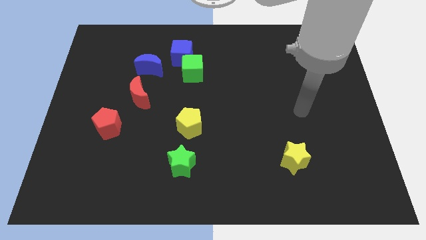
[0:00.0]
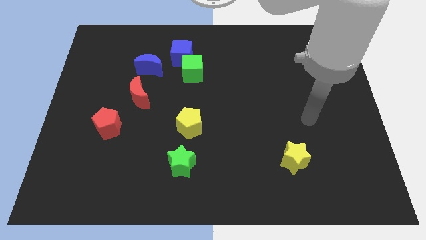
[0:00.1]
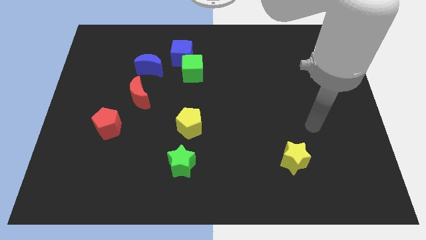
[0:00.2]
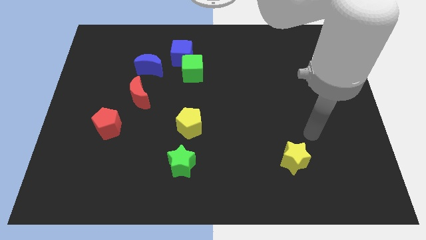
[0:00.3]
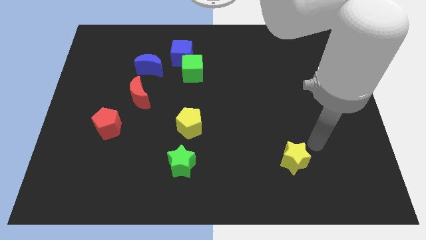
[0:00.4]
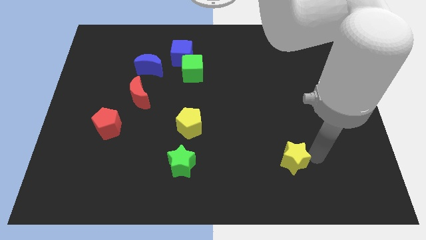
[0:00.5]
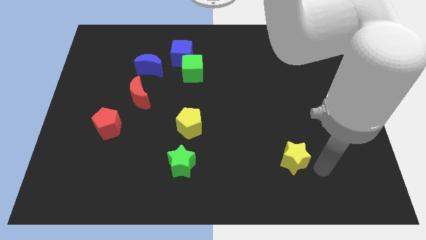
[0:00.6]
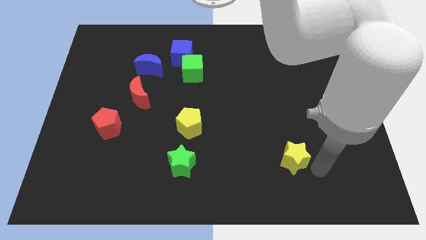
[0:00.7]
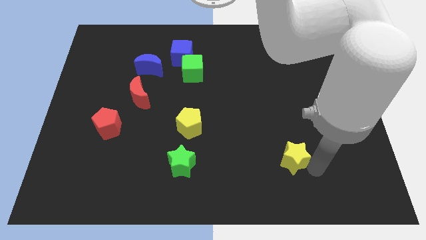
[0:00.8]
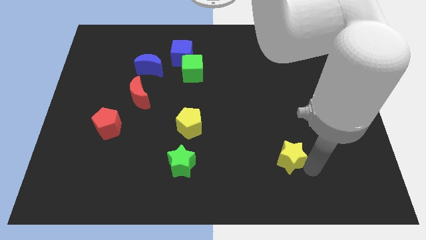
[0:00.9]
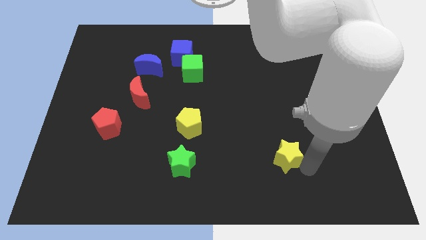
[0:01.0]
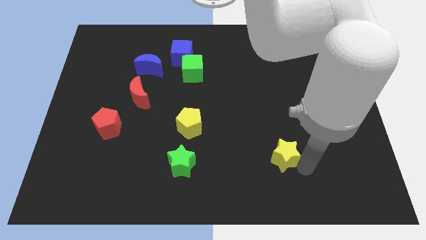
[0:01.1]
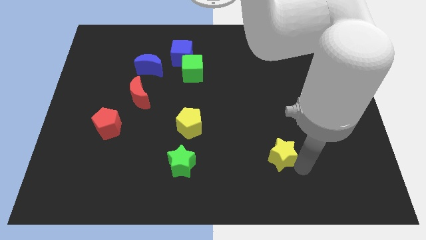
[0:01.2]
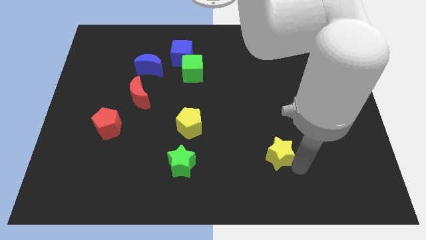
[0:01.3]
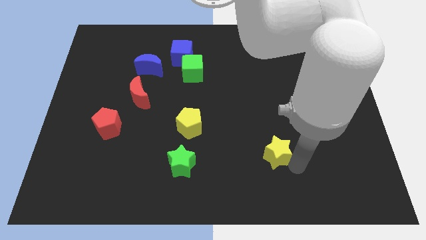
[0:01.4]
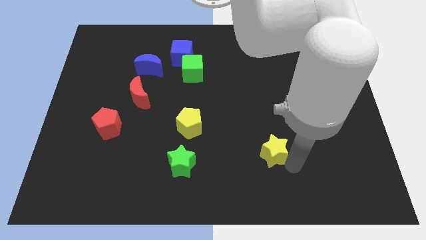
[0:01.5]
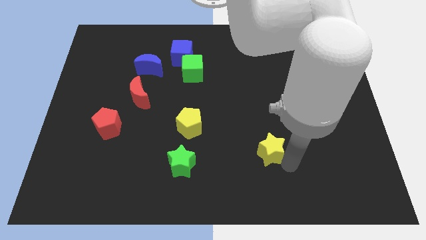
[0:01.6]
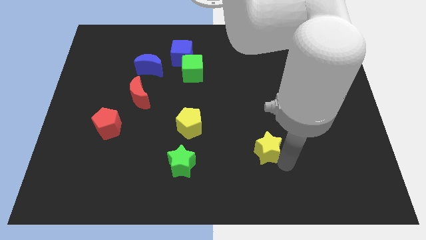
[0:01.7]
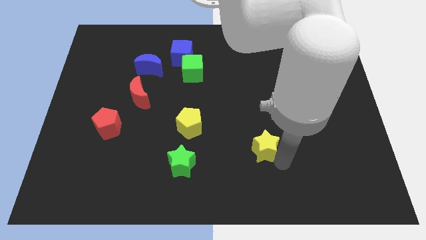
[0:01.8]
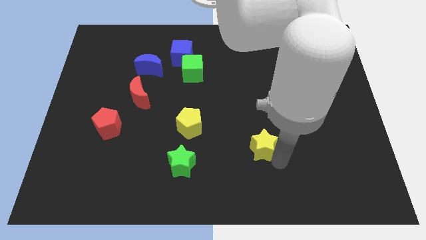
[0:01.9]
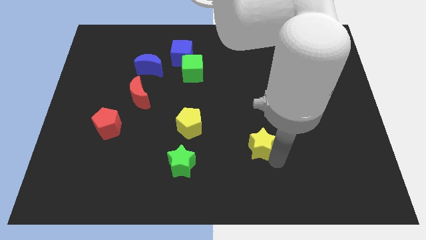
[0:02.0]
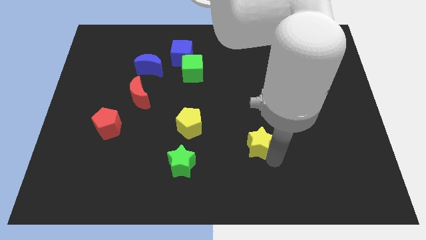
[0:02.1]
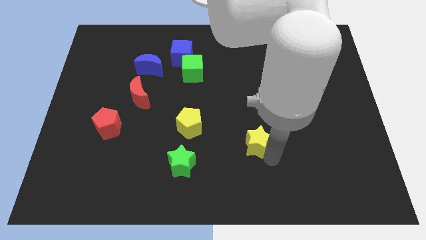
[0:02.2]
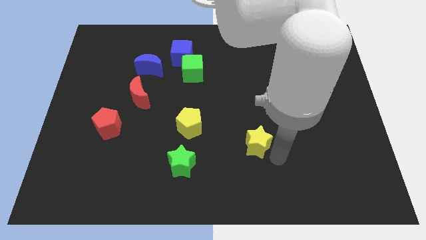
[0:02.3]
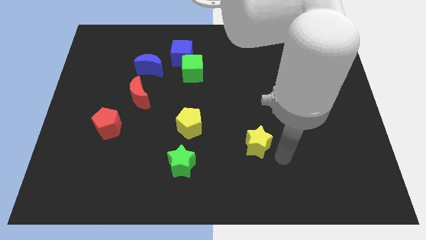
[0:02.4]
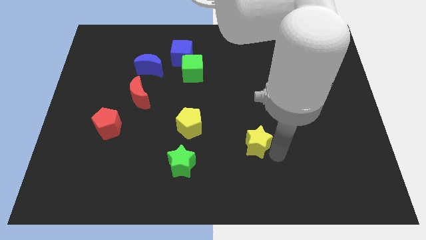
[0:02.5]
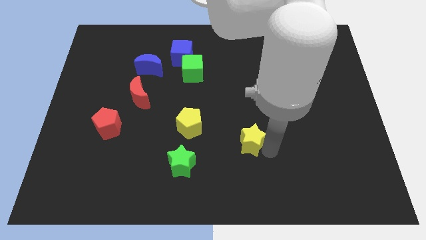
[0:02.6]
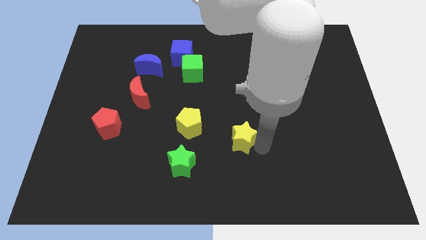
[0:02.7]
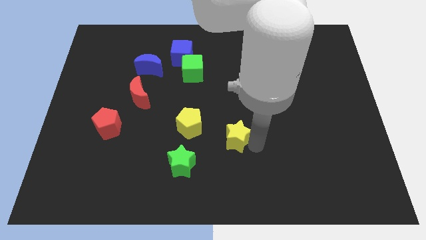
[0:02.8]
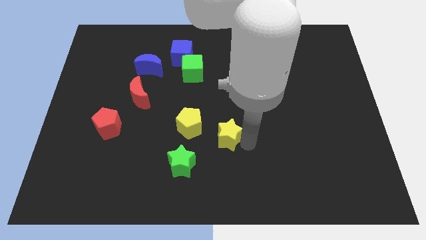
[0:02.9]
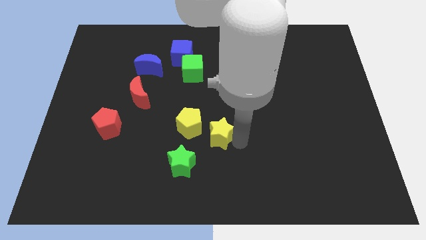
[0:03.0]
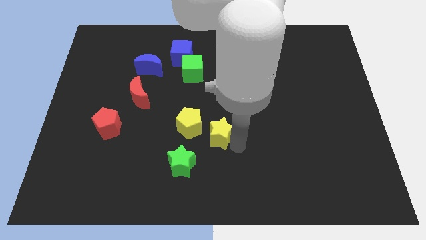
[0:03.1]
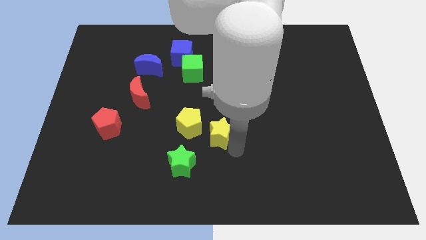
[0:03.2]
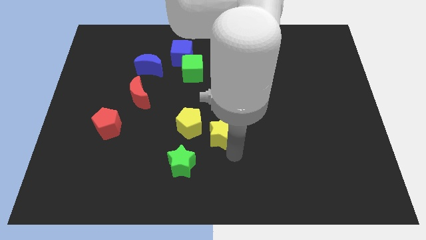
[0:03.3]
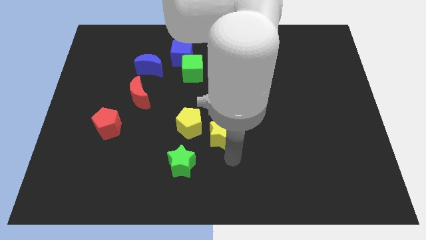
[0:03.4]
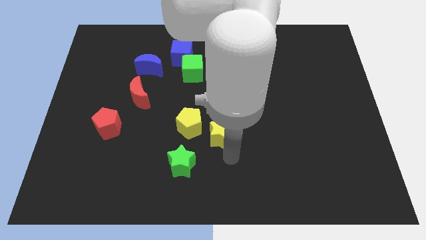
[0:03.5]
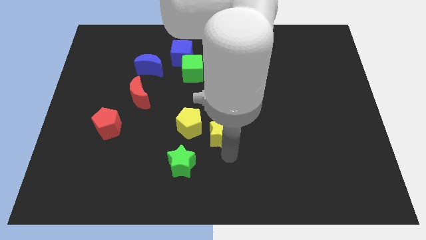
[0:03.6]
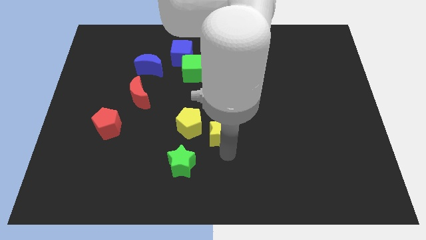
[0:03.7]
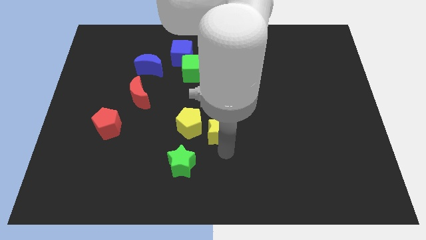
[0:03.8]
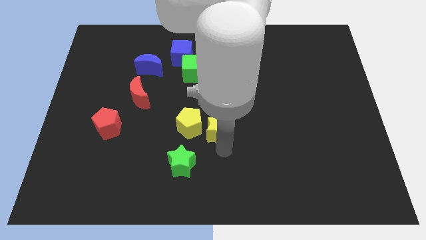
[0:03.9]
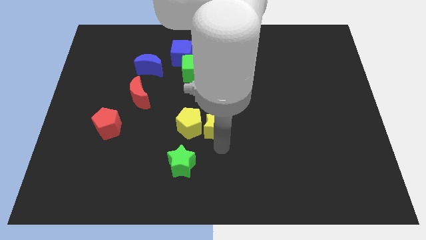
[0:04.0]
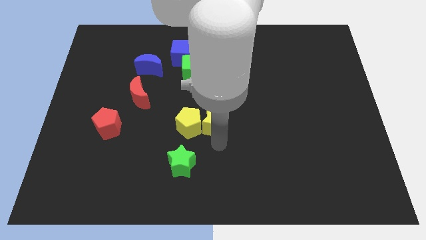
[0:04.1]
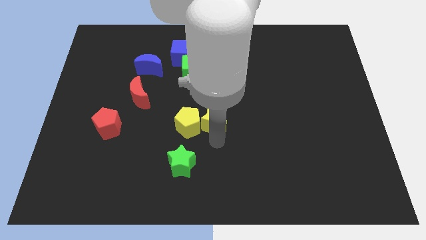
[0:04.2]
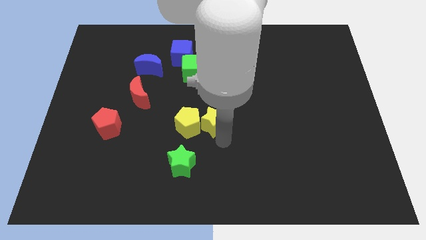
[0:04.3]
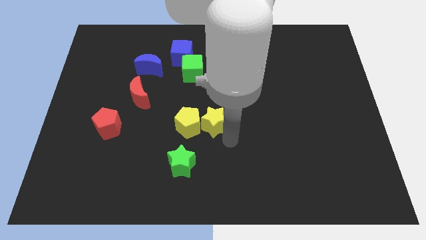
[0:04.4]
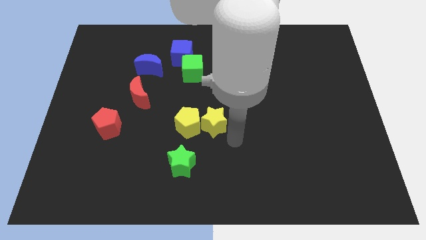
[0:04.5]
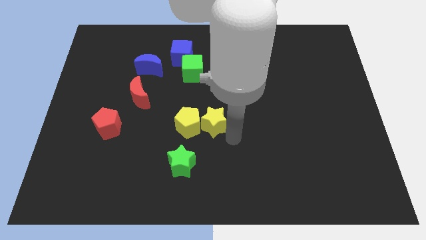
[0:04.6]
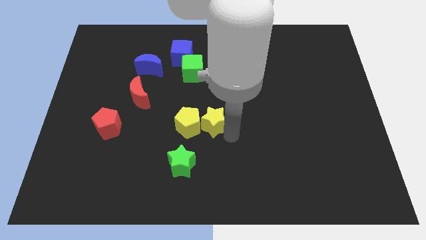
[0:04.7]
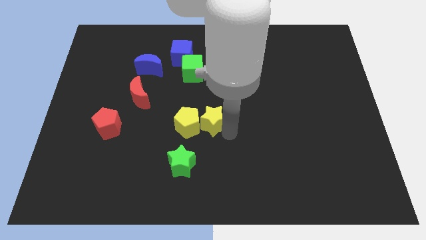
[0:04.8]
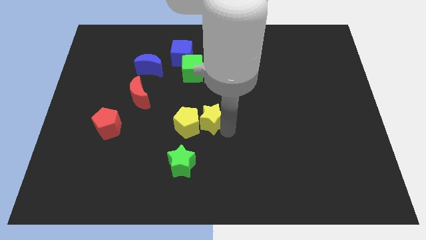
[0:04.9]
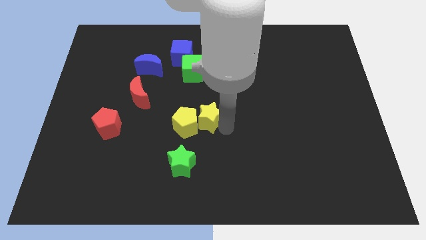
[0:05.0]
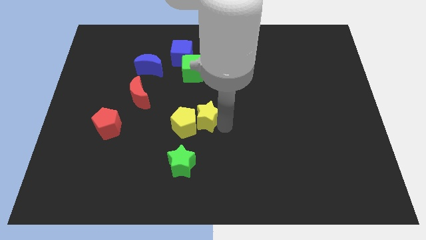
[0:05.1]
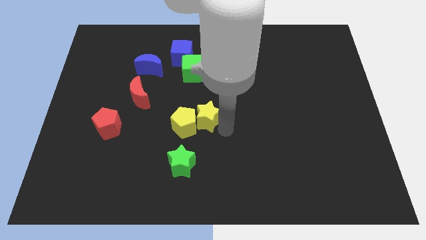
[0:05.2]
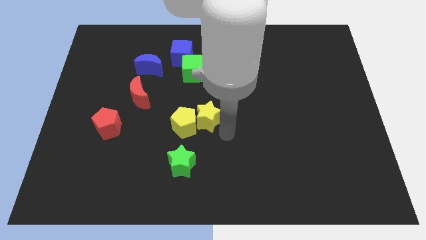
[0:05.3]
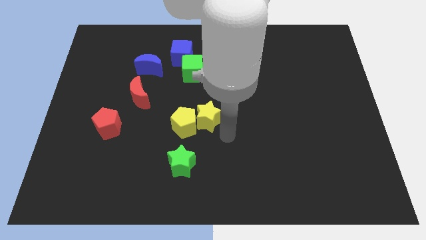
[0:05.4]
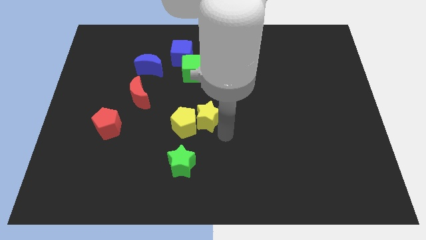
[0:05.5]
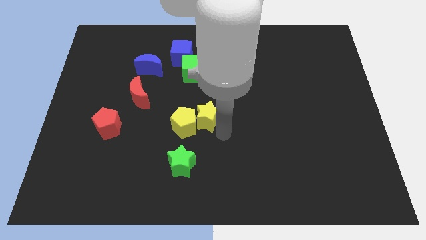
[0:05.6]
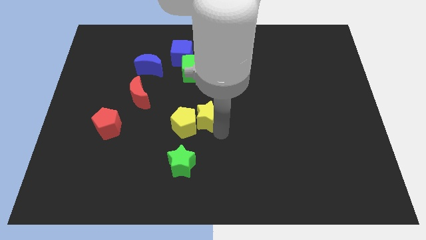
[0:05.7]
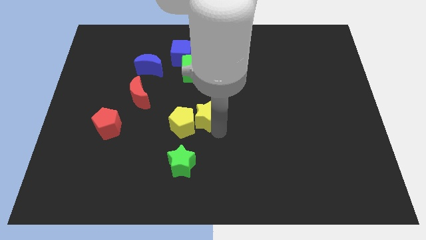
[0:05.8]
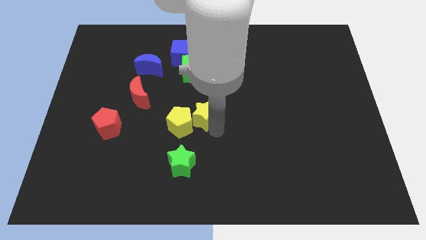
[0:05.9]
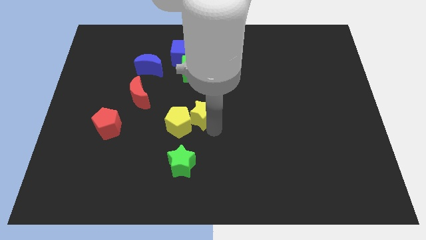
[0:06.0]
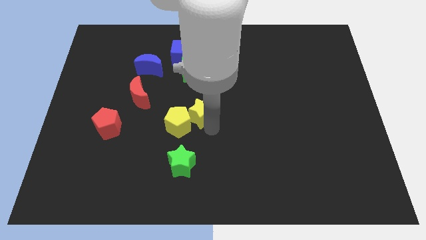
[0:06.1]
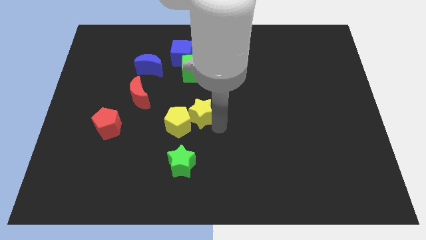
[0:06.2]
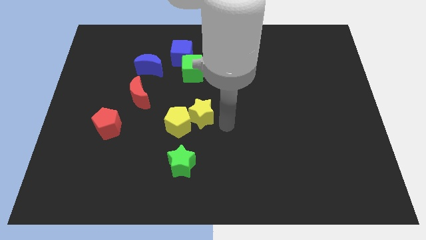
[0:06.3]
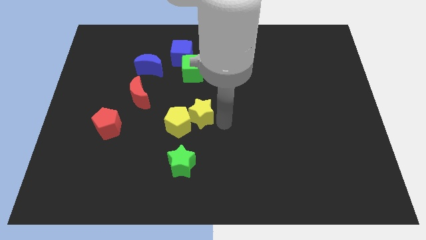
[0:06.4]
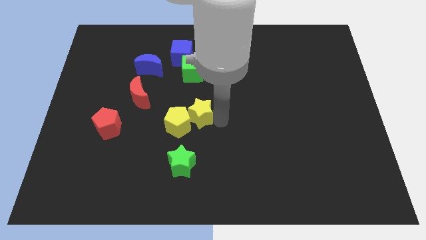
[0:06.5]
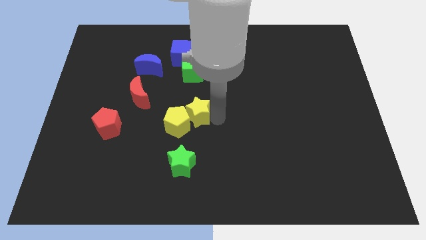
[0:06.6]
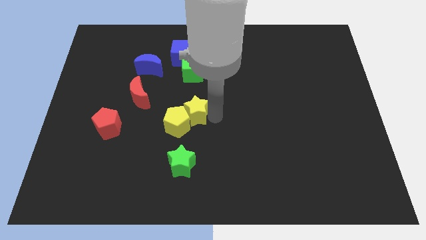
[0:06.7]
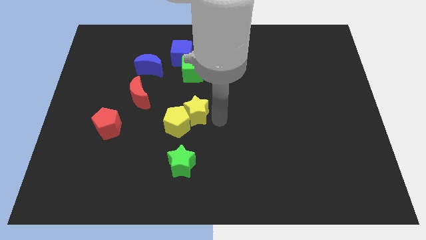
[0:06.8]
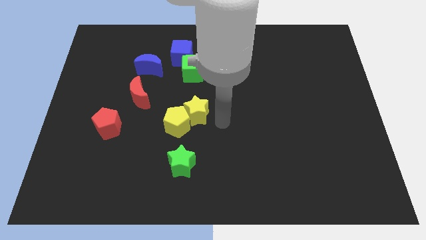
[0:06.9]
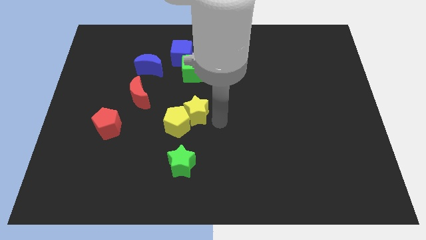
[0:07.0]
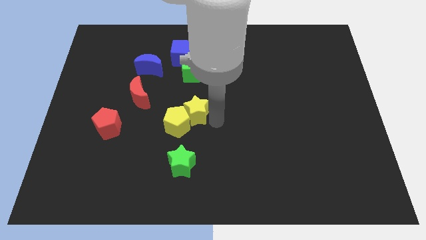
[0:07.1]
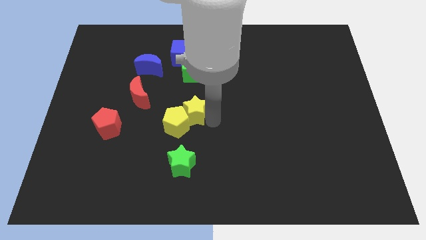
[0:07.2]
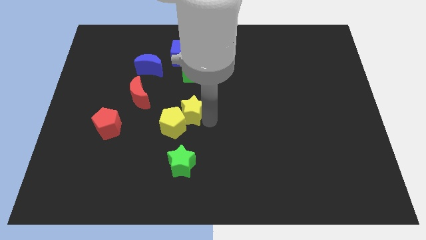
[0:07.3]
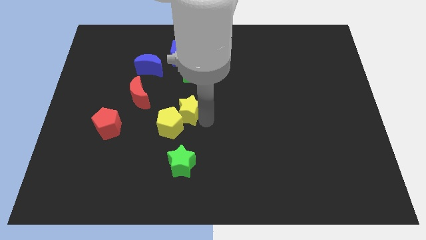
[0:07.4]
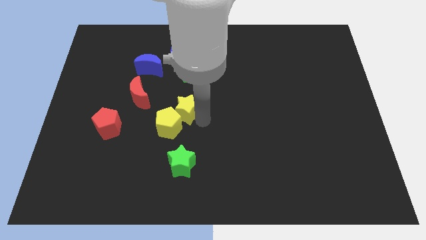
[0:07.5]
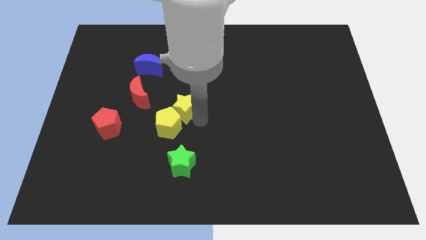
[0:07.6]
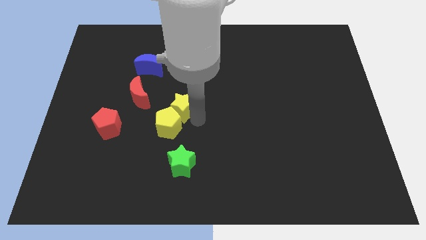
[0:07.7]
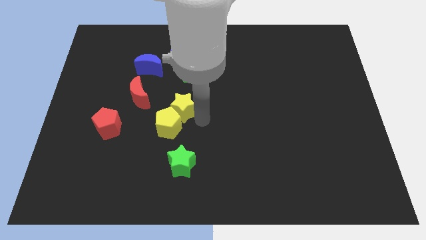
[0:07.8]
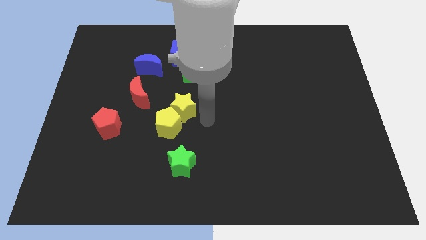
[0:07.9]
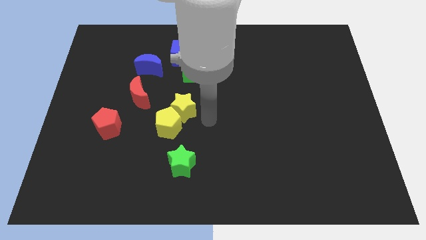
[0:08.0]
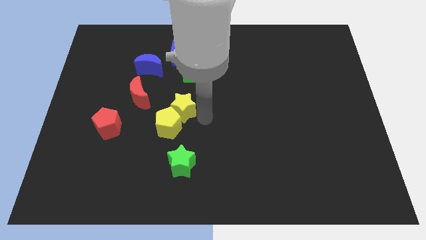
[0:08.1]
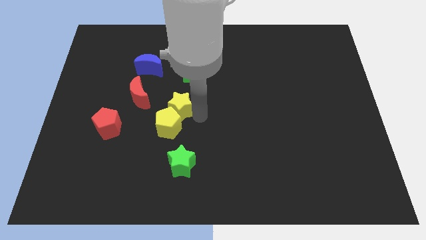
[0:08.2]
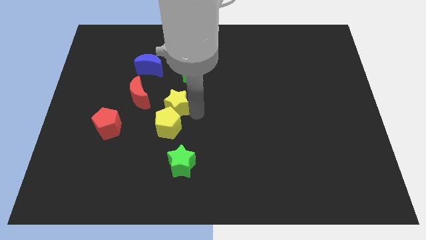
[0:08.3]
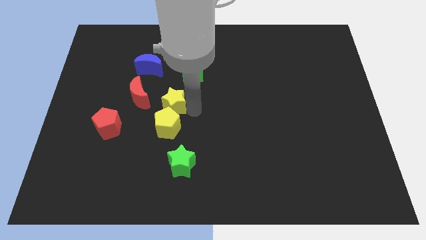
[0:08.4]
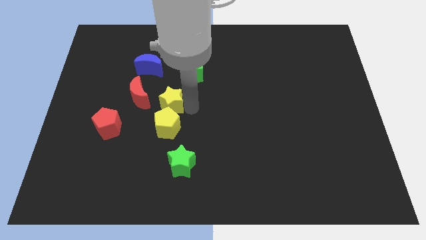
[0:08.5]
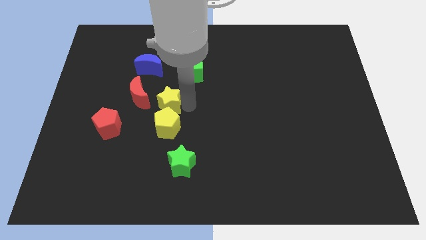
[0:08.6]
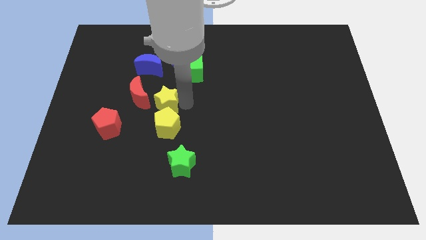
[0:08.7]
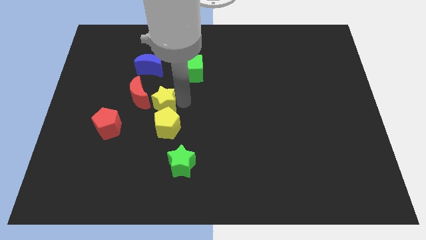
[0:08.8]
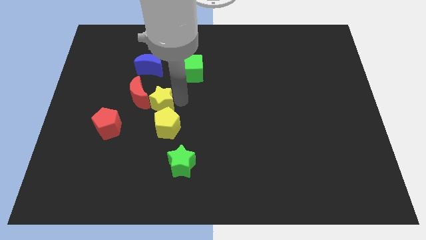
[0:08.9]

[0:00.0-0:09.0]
move the yellow star to the red moon
